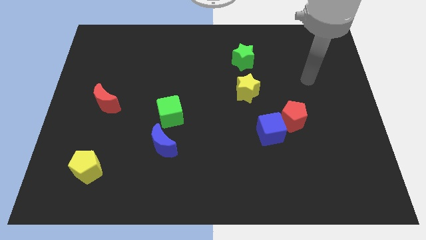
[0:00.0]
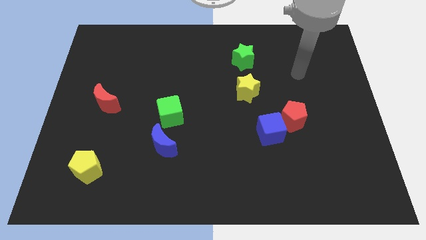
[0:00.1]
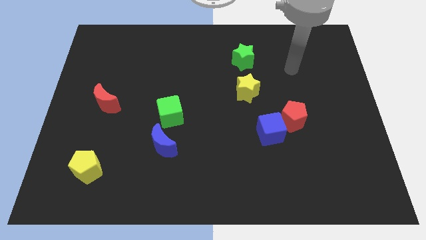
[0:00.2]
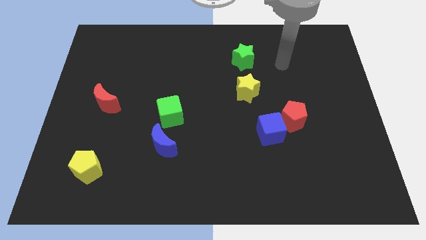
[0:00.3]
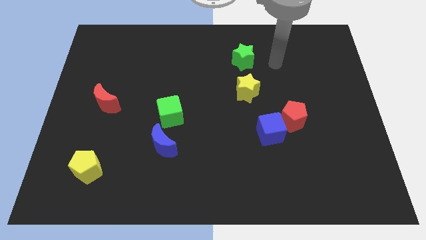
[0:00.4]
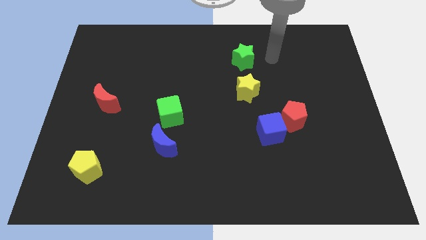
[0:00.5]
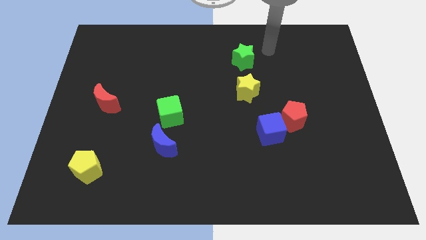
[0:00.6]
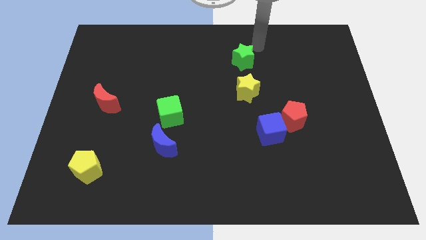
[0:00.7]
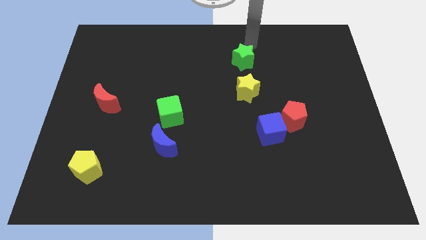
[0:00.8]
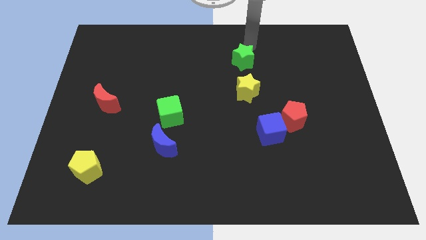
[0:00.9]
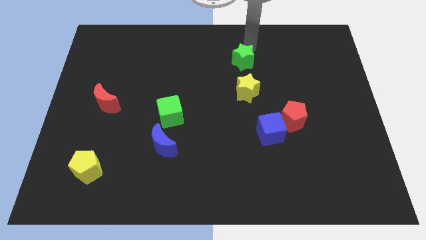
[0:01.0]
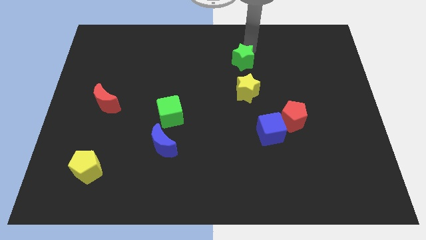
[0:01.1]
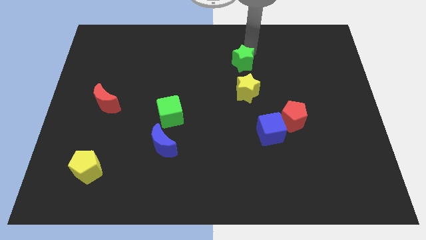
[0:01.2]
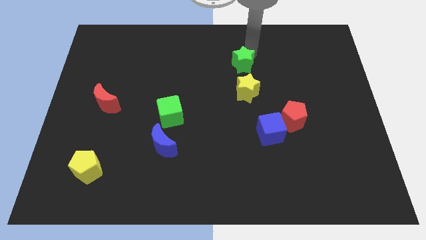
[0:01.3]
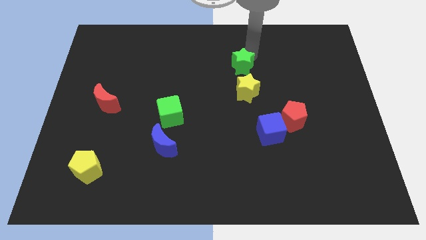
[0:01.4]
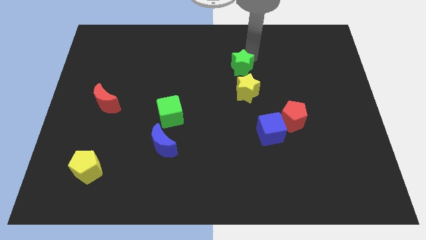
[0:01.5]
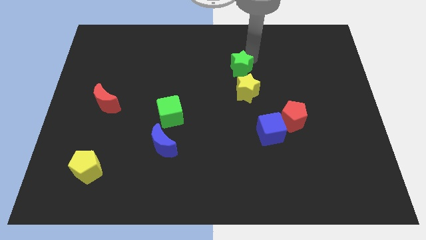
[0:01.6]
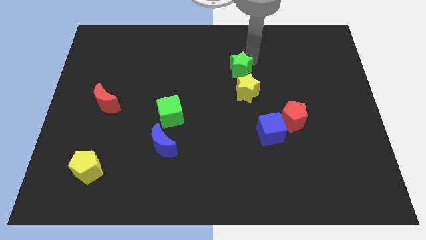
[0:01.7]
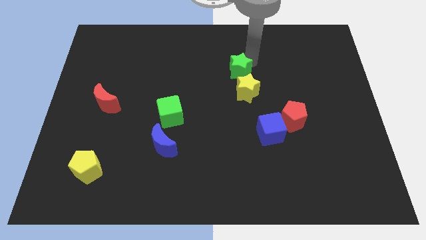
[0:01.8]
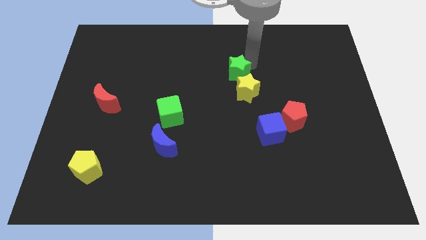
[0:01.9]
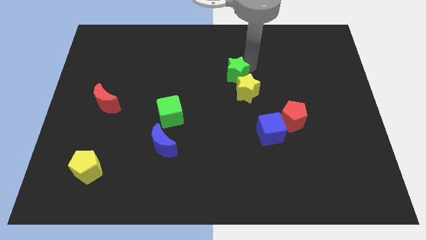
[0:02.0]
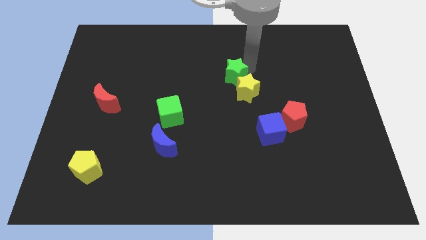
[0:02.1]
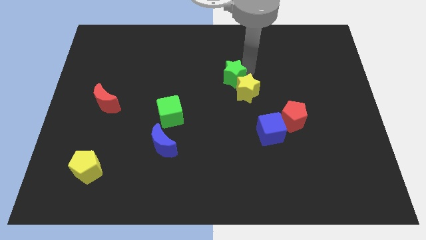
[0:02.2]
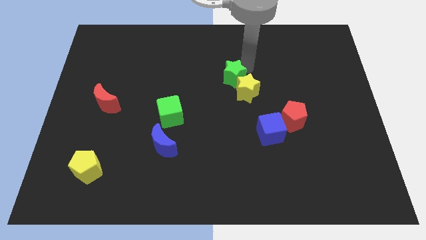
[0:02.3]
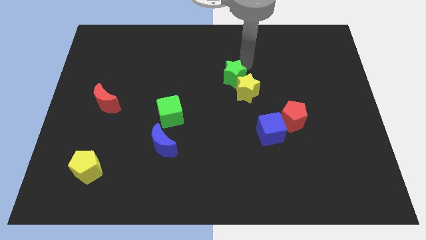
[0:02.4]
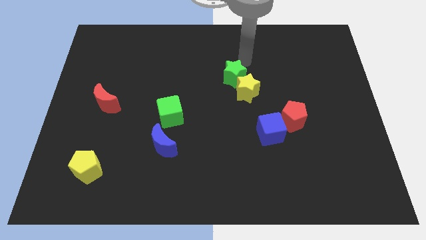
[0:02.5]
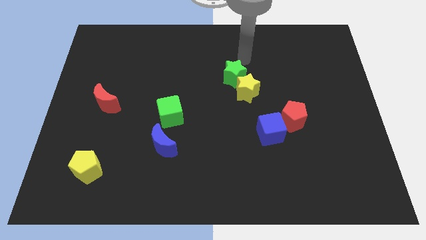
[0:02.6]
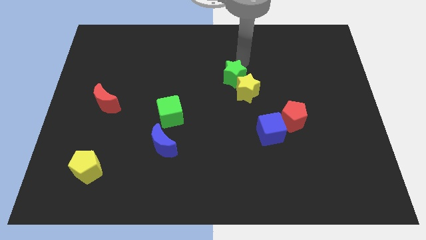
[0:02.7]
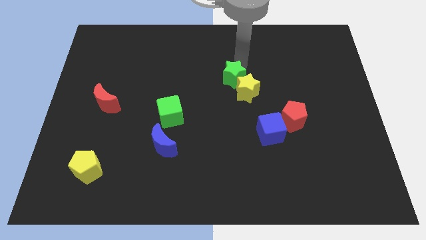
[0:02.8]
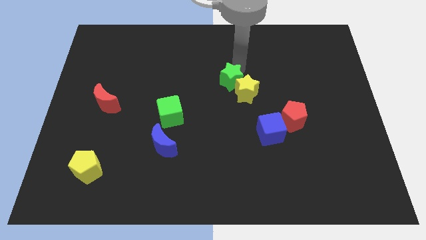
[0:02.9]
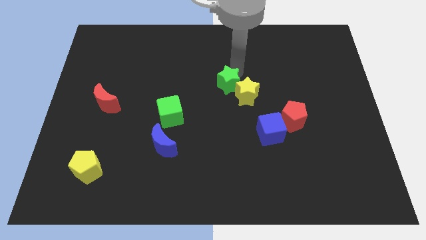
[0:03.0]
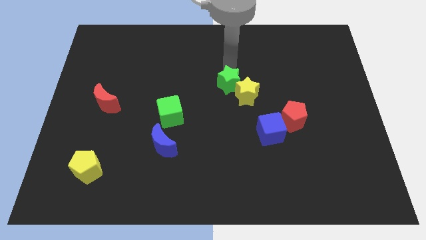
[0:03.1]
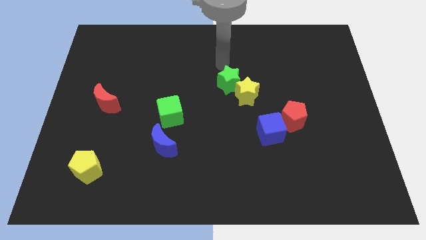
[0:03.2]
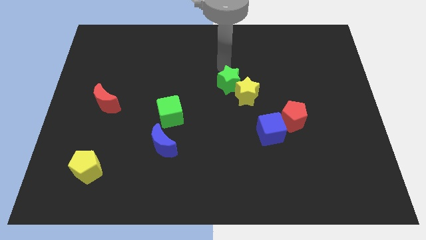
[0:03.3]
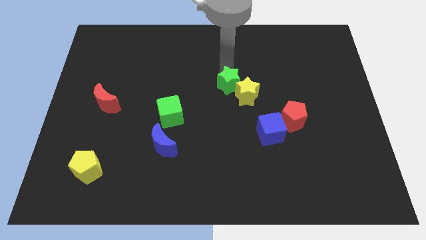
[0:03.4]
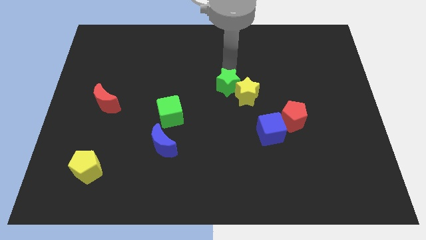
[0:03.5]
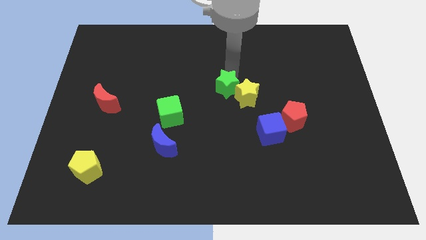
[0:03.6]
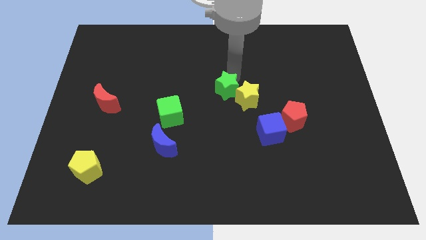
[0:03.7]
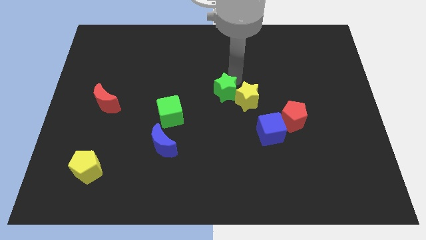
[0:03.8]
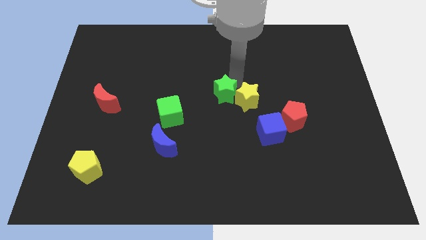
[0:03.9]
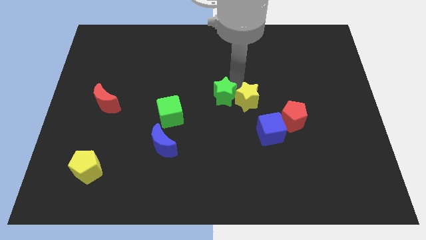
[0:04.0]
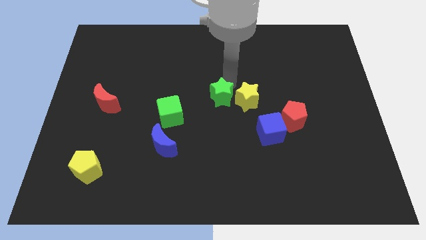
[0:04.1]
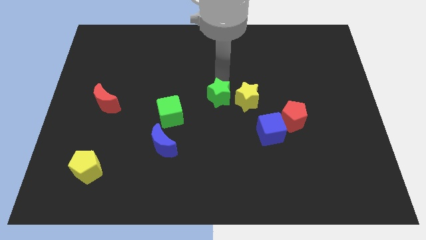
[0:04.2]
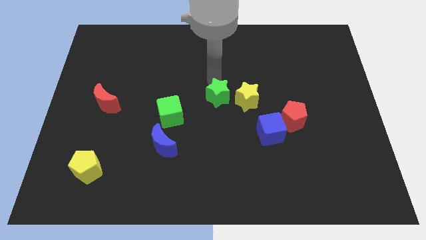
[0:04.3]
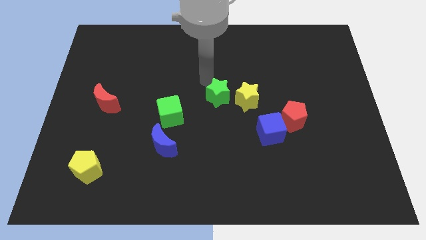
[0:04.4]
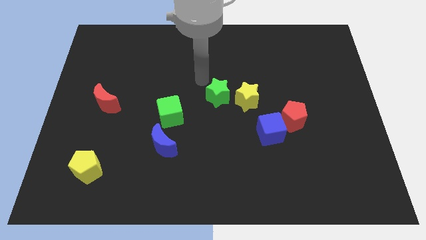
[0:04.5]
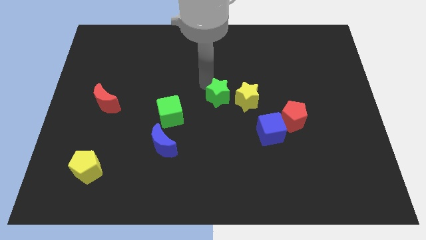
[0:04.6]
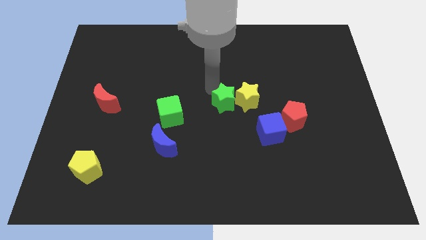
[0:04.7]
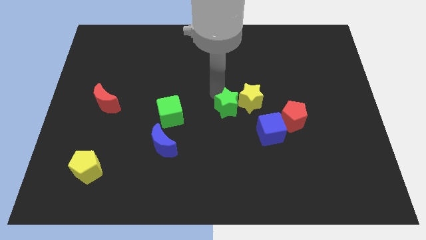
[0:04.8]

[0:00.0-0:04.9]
slide the green star to the left of the red pentagon

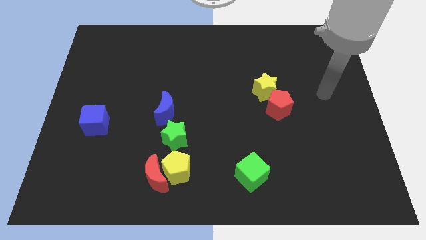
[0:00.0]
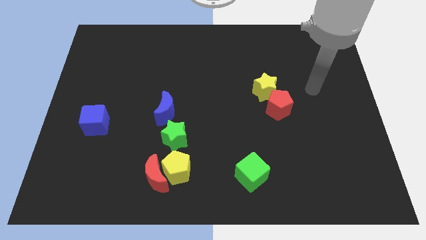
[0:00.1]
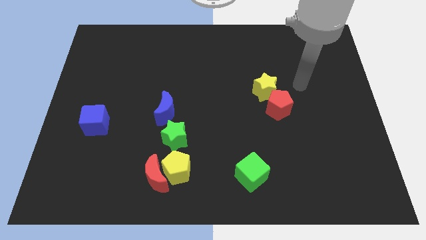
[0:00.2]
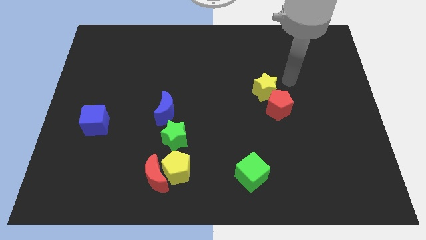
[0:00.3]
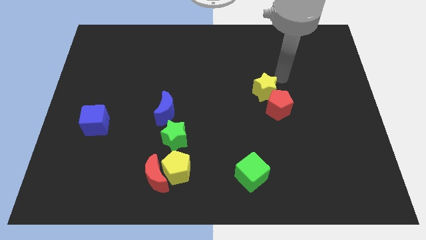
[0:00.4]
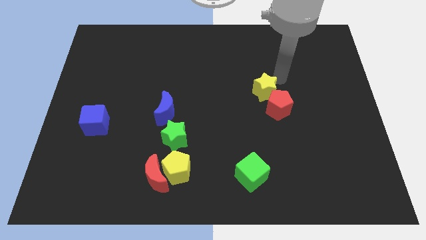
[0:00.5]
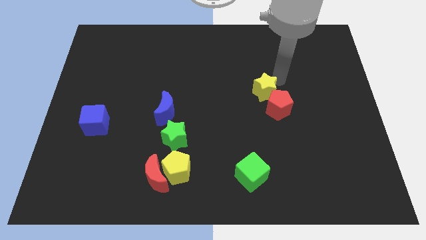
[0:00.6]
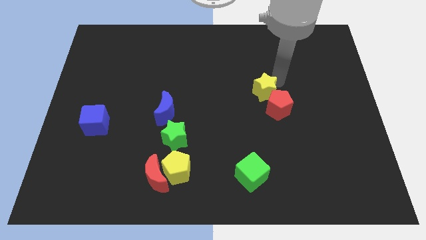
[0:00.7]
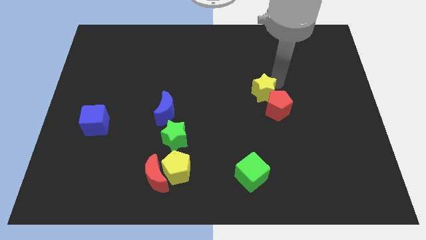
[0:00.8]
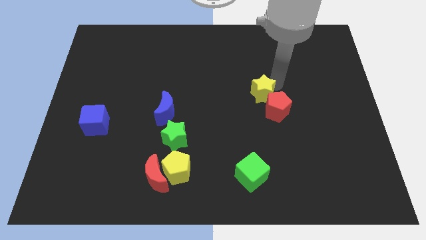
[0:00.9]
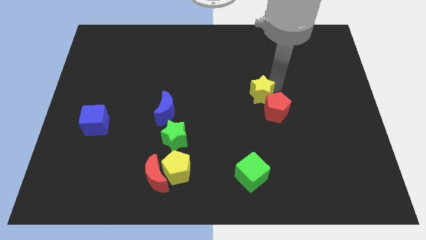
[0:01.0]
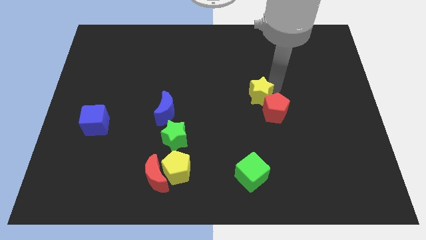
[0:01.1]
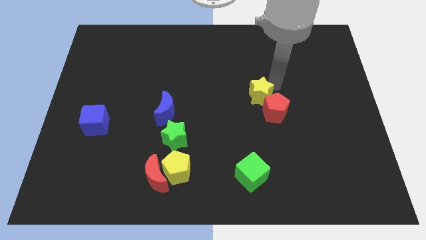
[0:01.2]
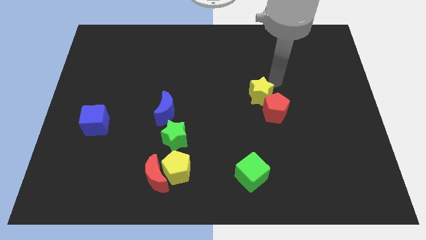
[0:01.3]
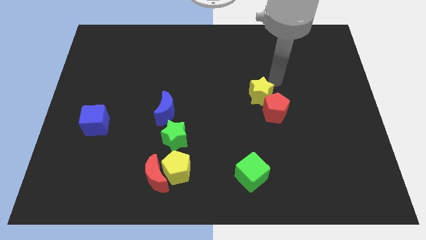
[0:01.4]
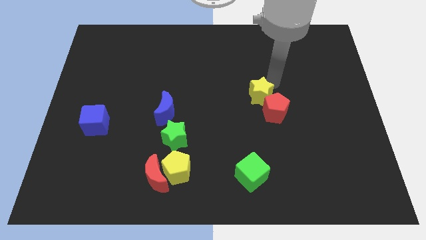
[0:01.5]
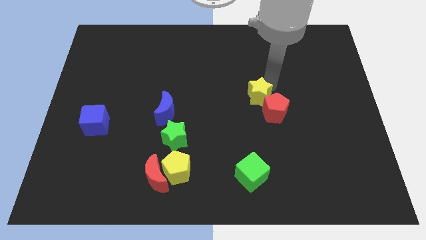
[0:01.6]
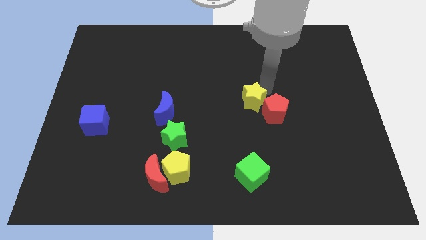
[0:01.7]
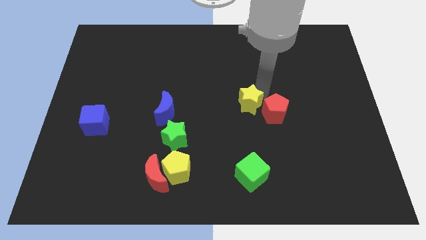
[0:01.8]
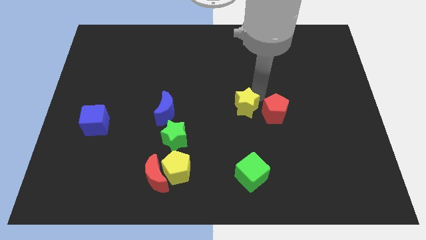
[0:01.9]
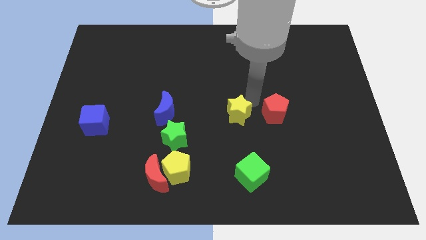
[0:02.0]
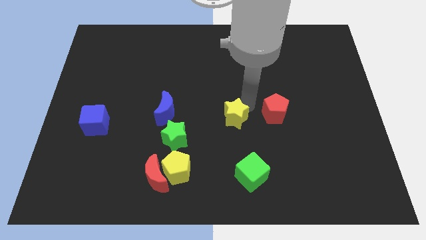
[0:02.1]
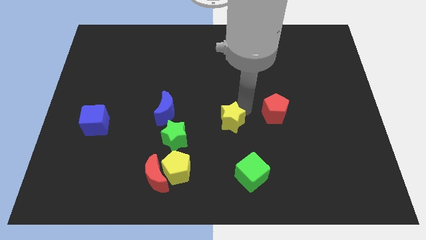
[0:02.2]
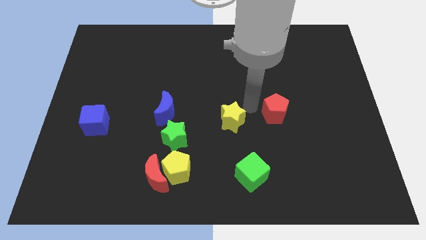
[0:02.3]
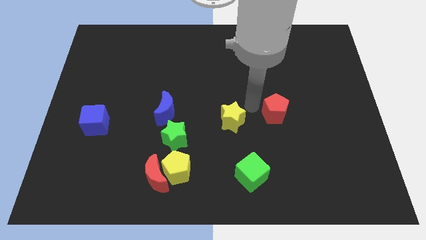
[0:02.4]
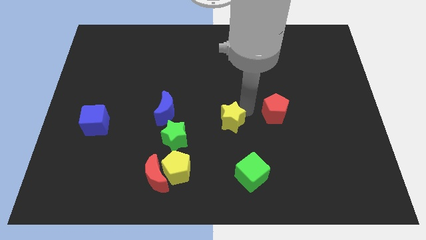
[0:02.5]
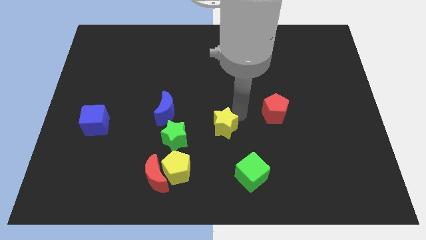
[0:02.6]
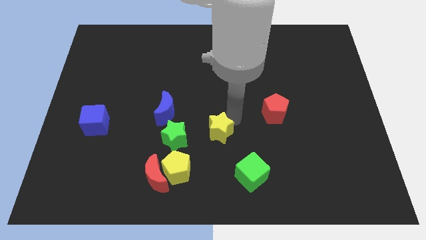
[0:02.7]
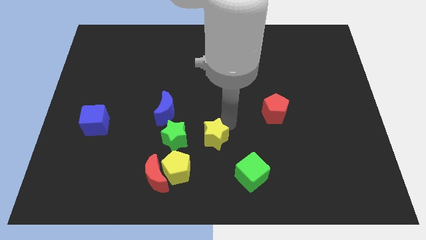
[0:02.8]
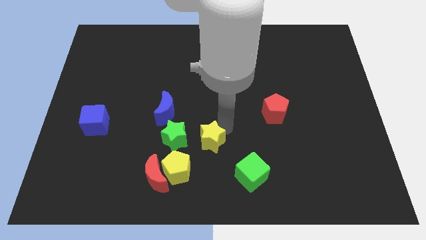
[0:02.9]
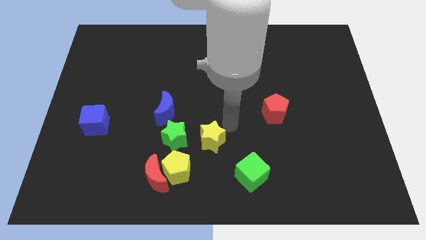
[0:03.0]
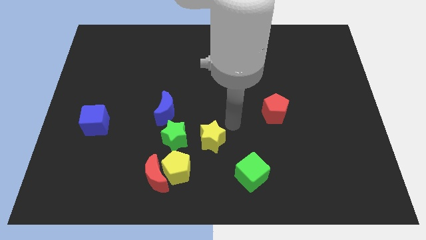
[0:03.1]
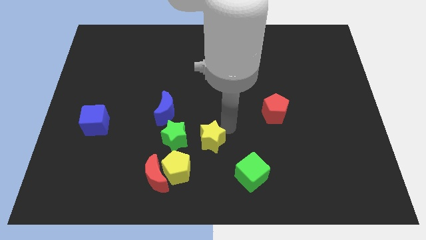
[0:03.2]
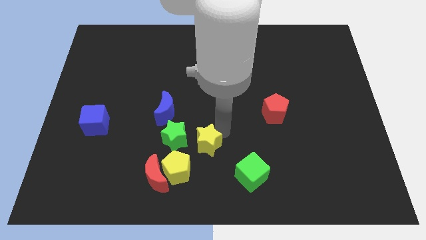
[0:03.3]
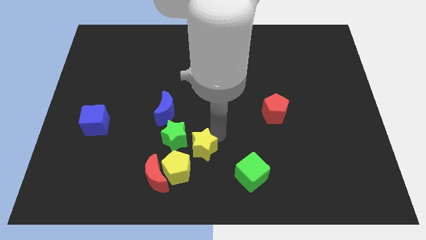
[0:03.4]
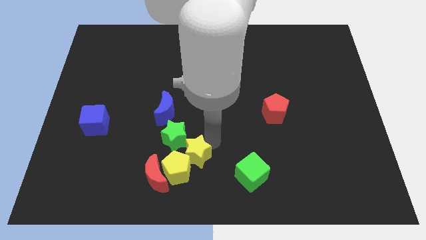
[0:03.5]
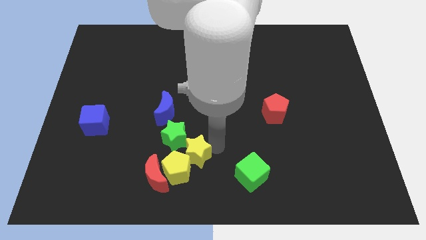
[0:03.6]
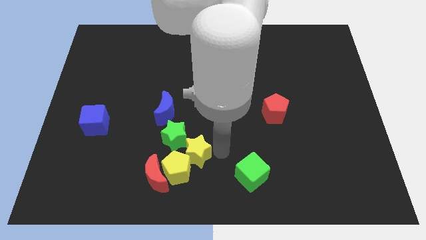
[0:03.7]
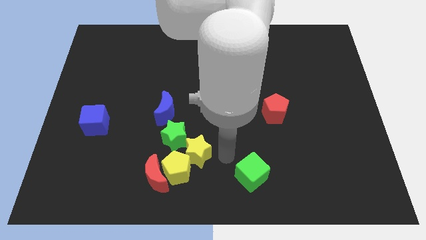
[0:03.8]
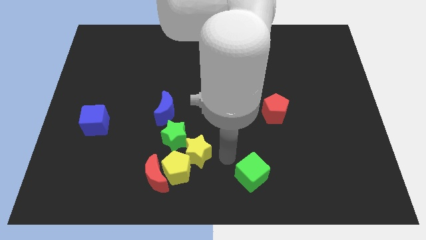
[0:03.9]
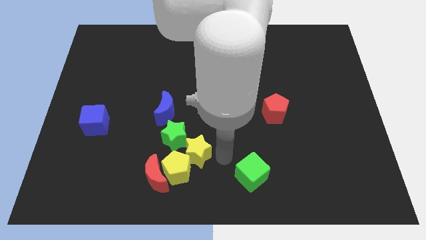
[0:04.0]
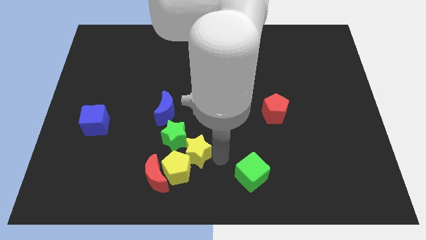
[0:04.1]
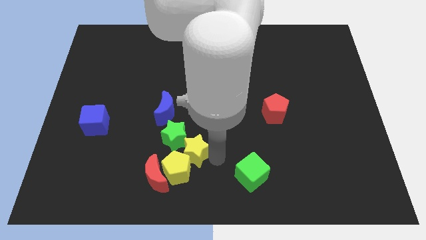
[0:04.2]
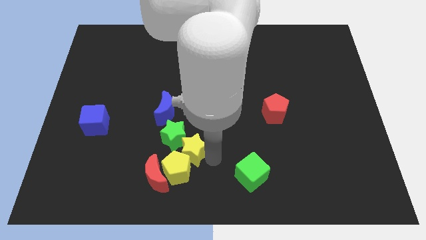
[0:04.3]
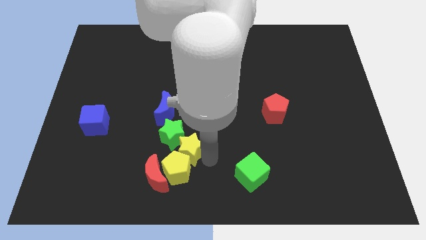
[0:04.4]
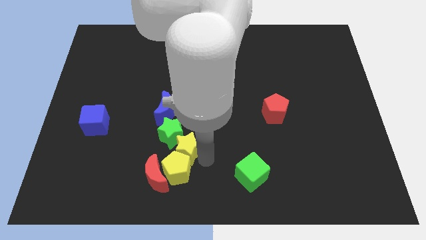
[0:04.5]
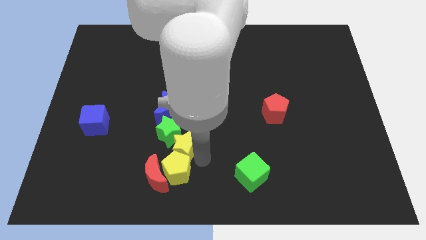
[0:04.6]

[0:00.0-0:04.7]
put the yellow star to the bottom side of the blue moon
